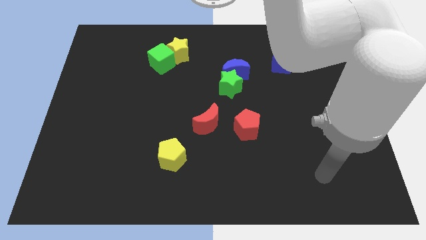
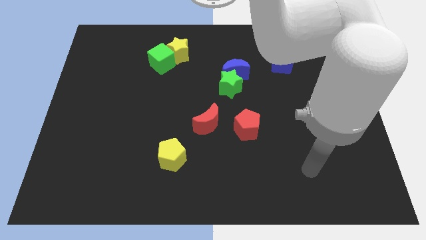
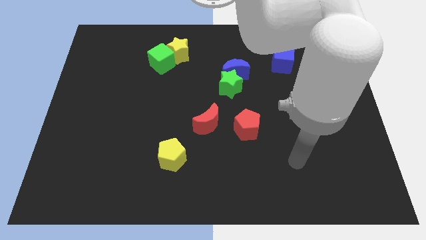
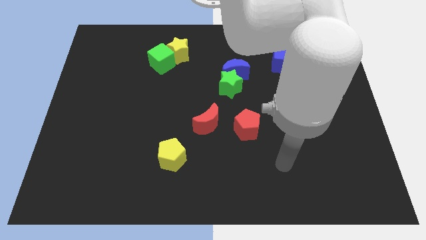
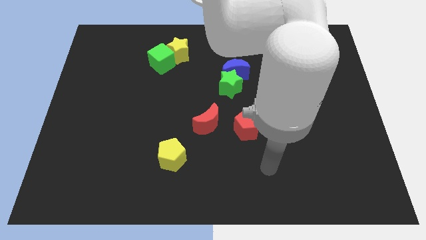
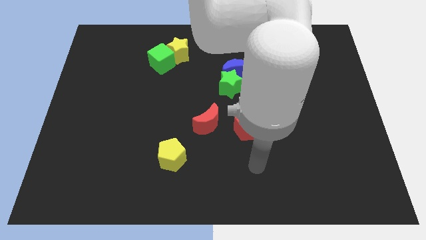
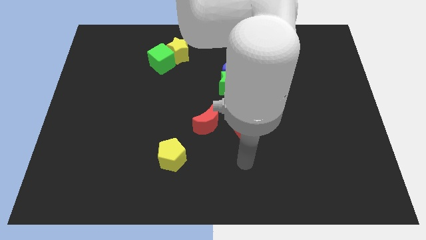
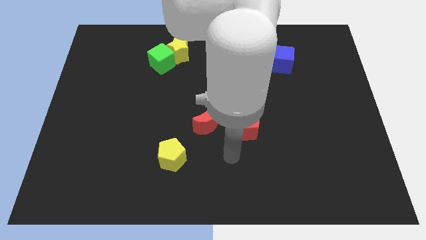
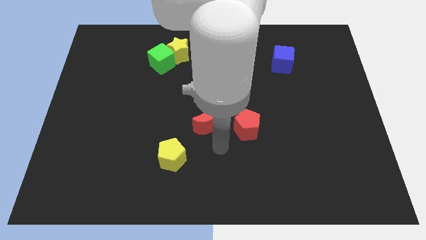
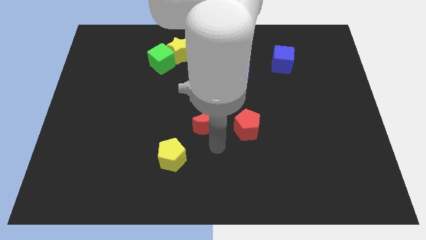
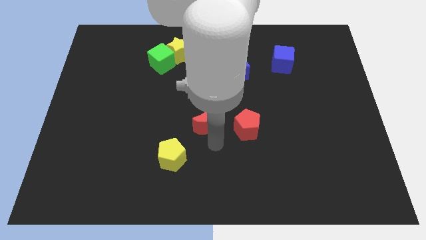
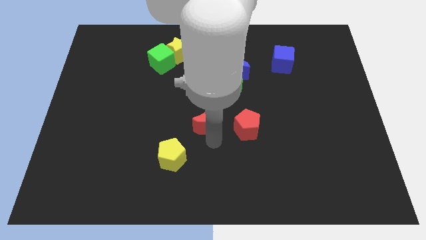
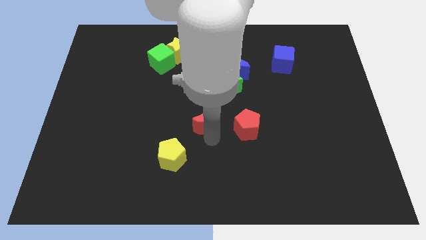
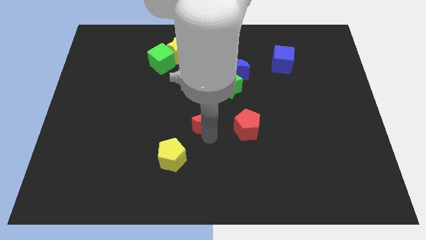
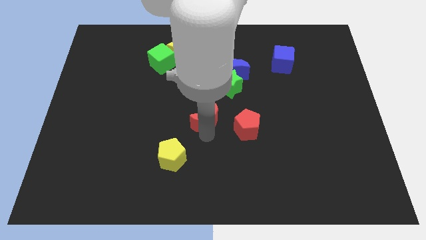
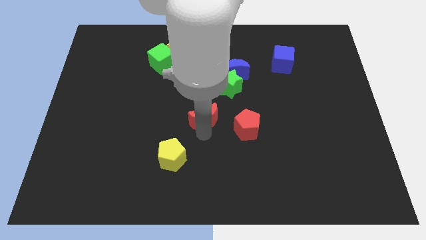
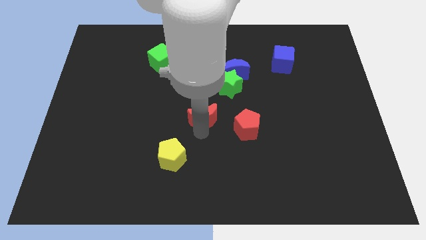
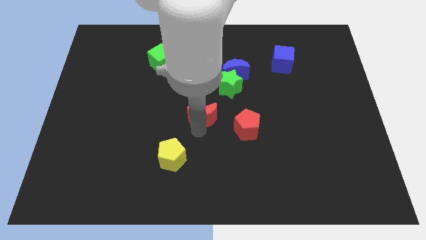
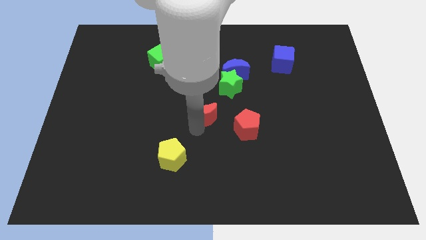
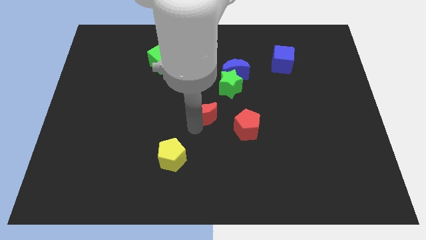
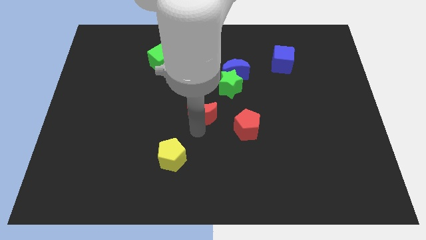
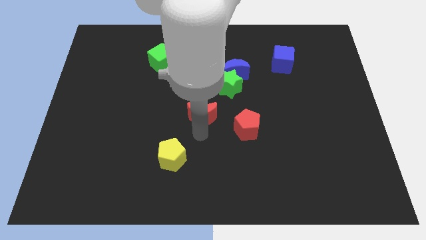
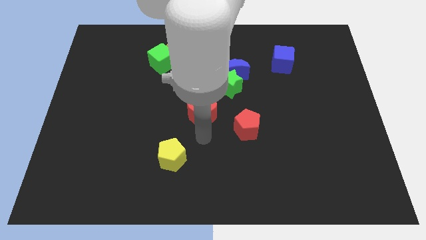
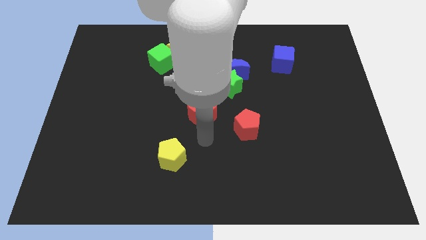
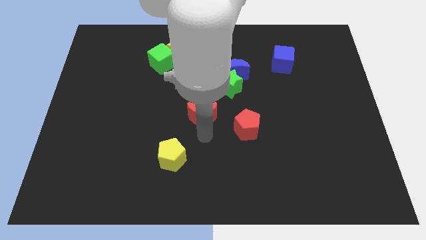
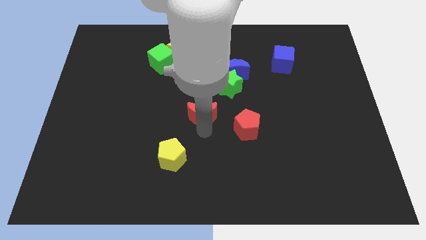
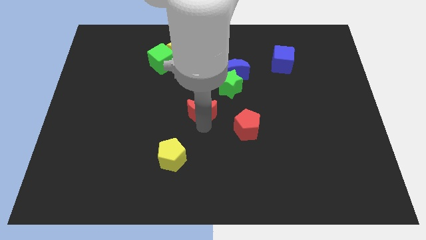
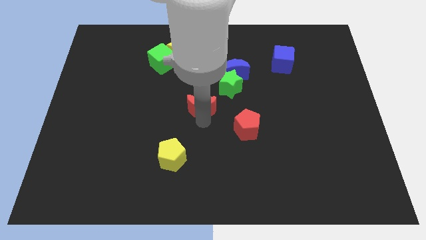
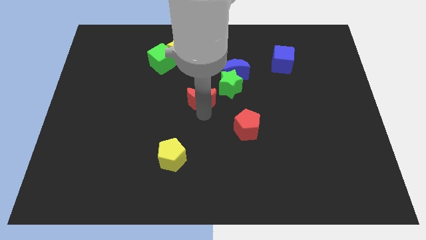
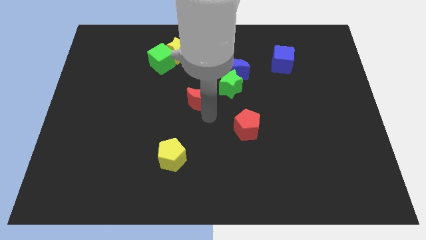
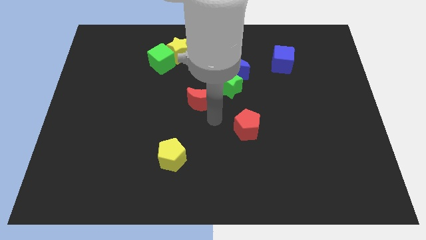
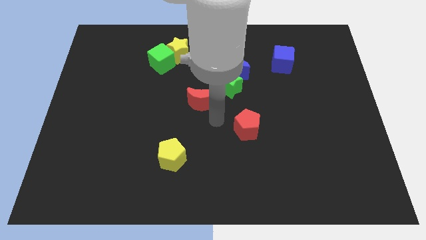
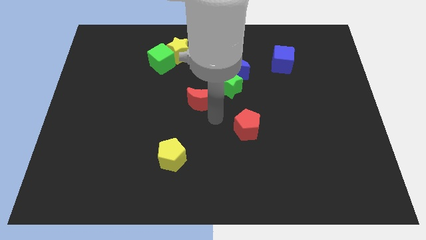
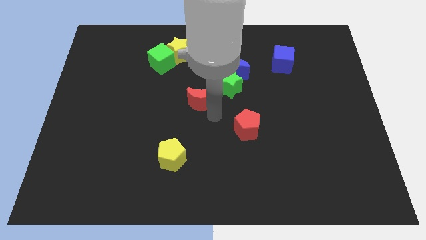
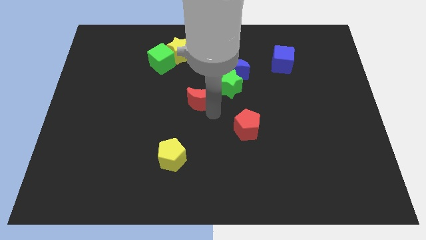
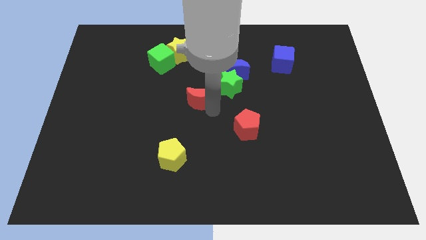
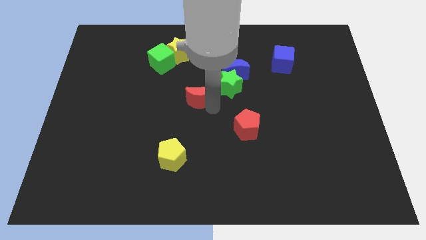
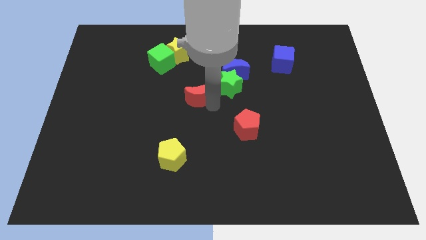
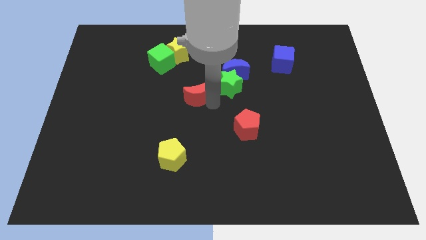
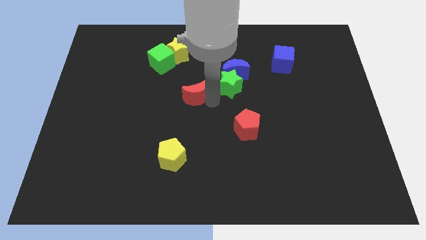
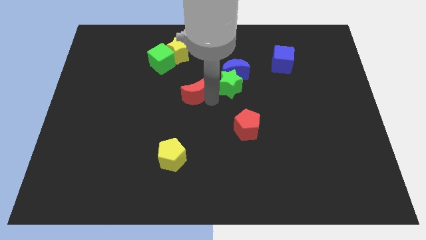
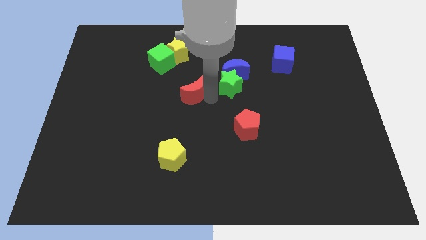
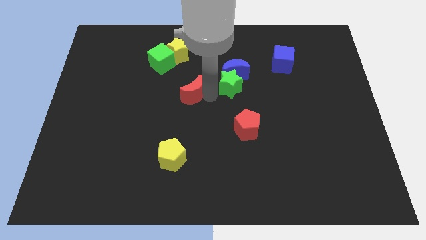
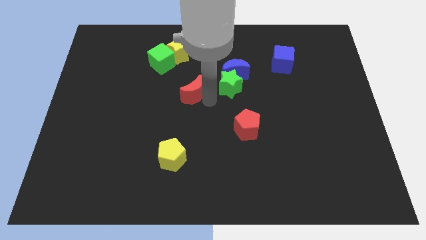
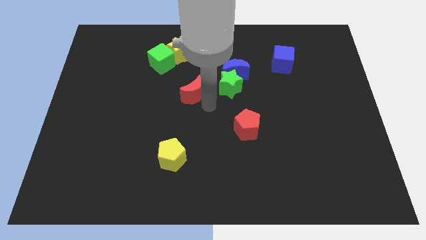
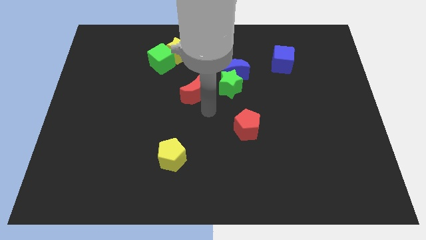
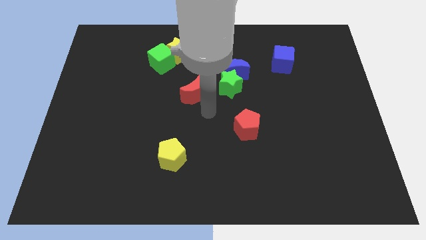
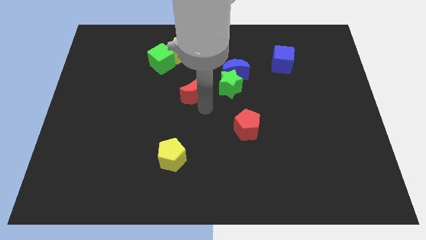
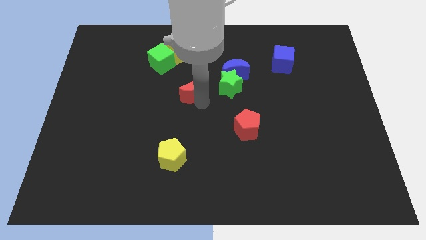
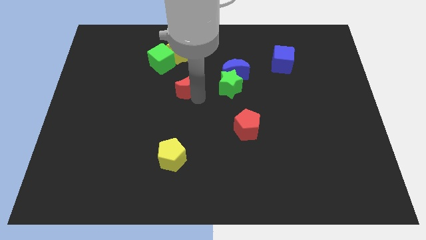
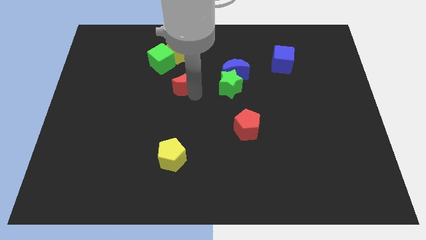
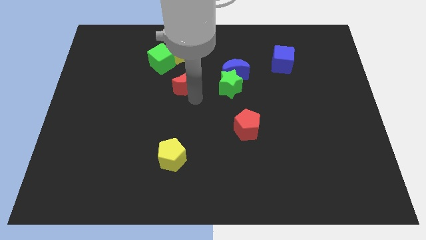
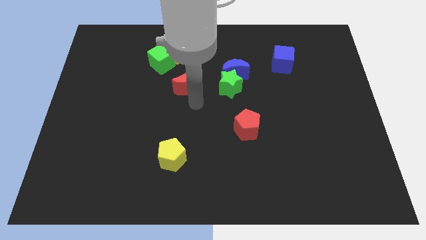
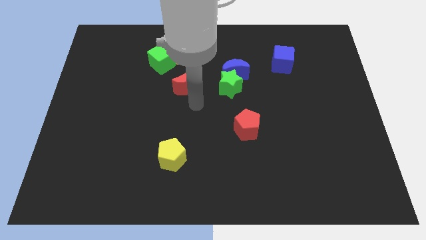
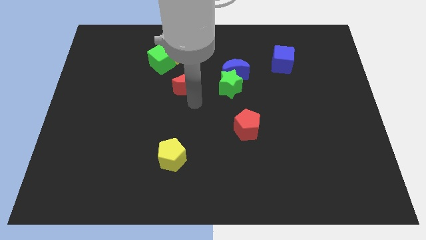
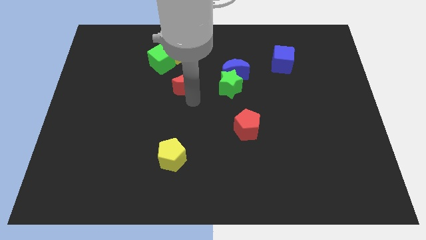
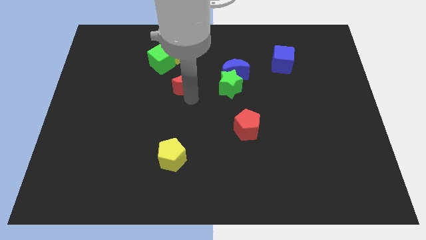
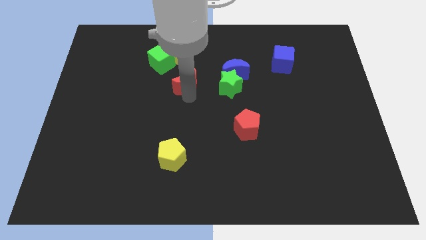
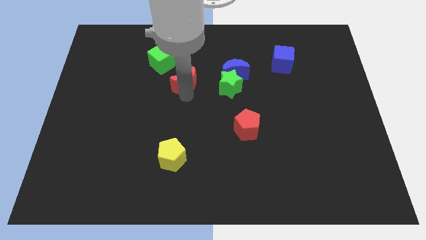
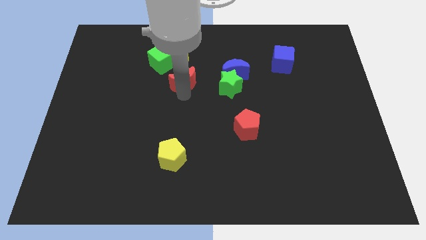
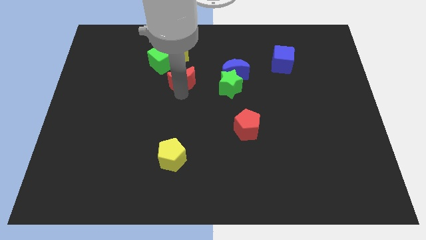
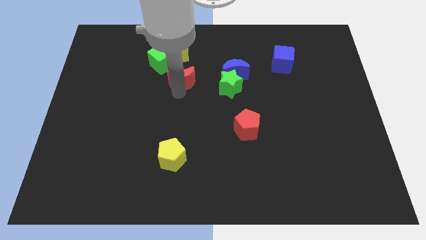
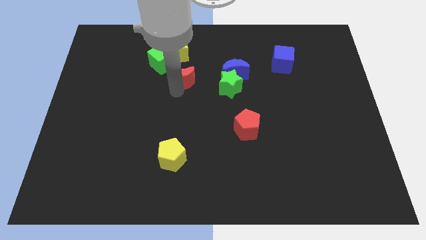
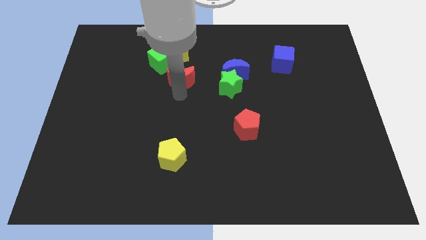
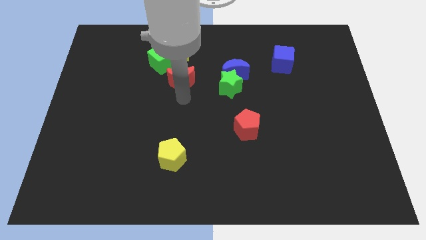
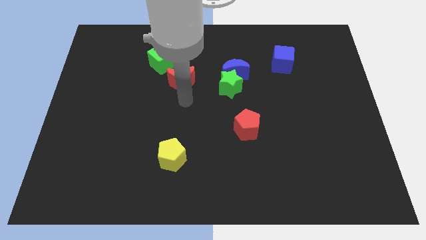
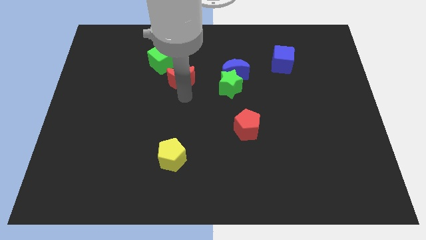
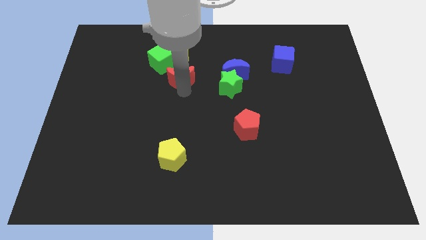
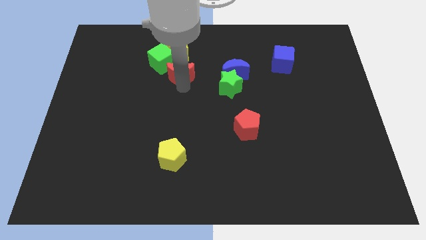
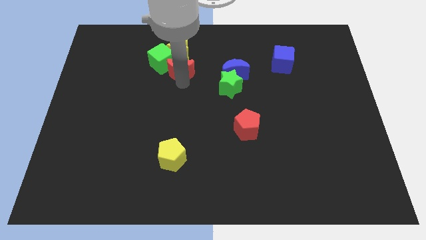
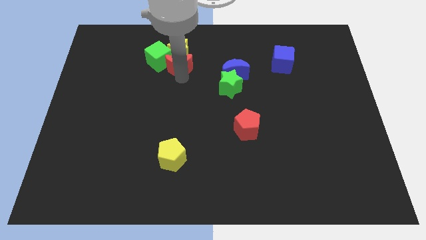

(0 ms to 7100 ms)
push the red moon to the yellow star
